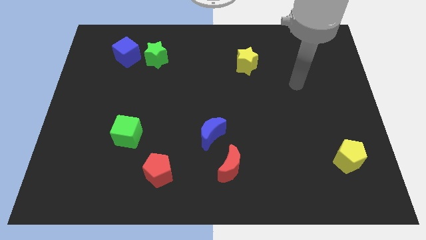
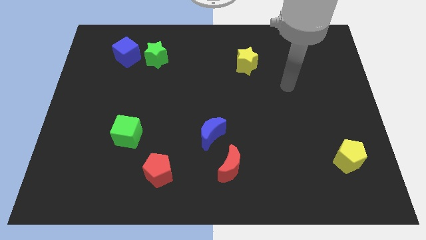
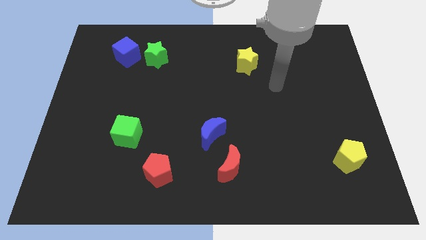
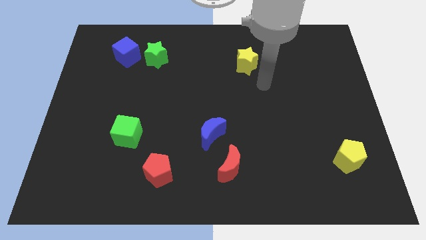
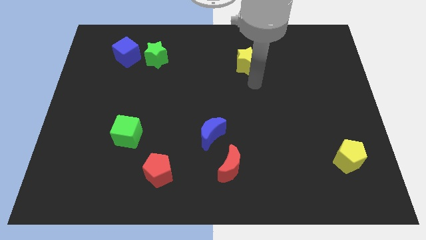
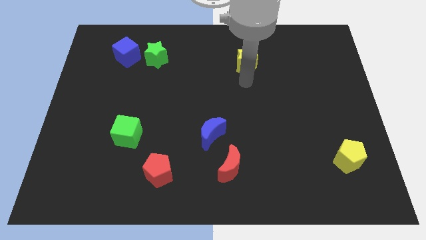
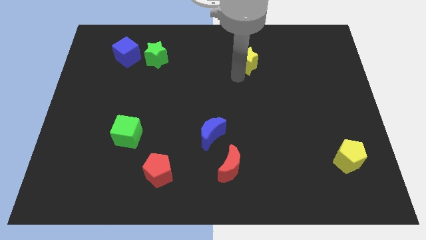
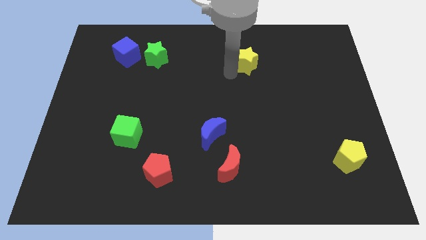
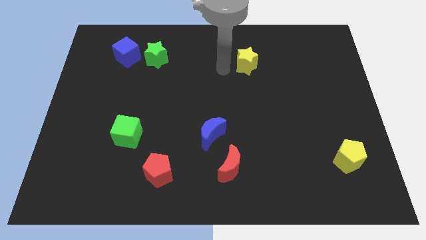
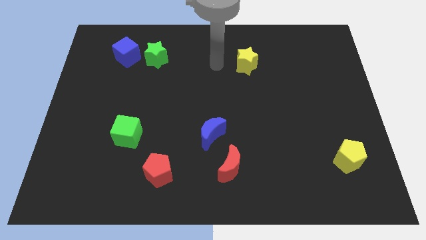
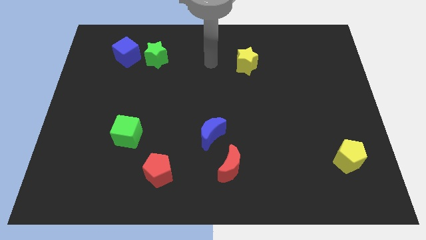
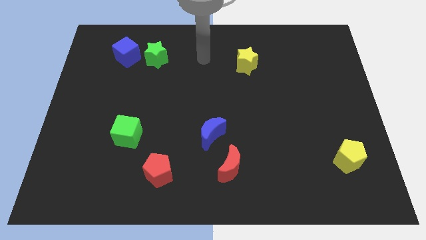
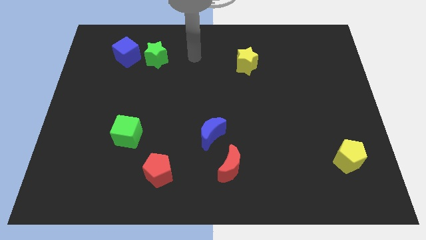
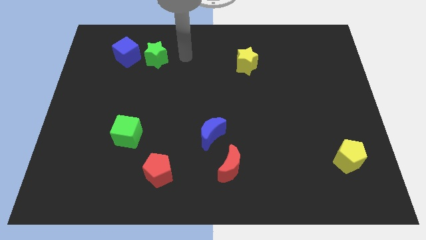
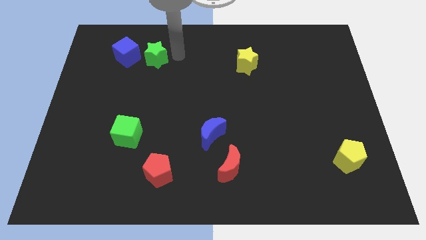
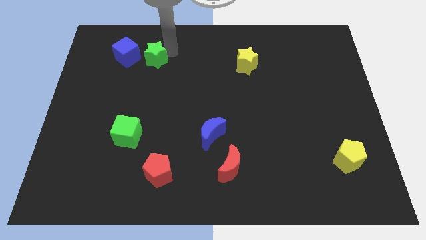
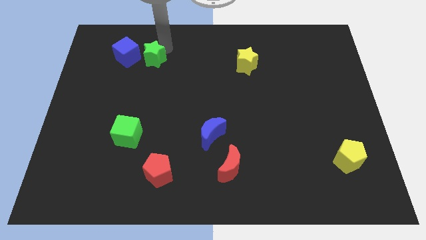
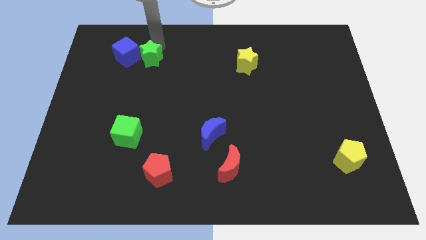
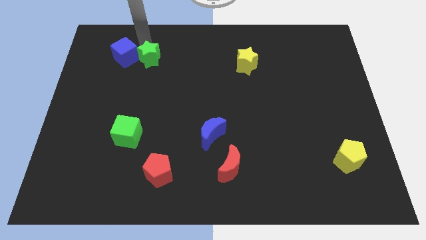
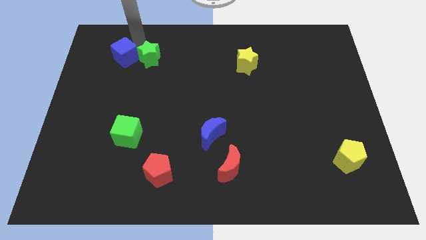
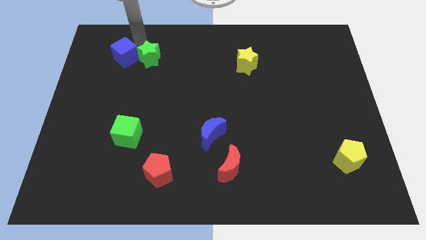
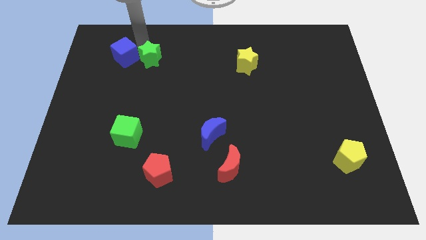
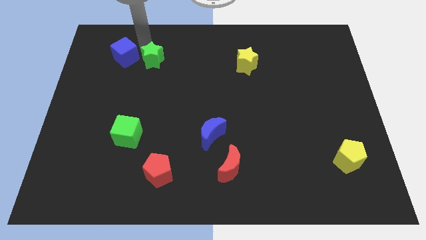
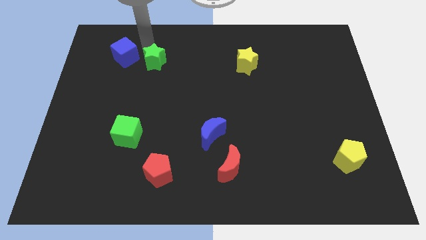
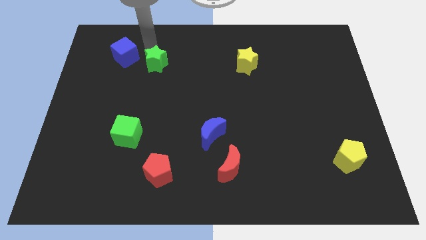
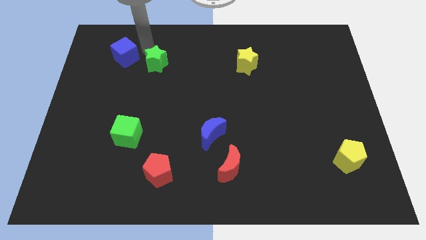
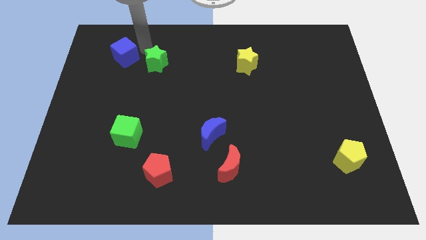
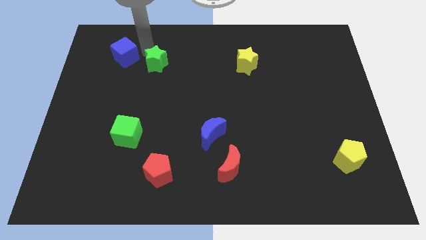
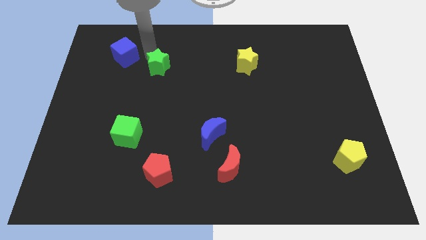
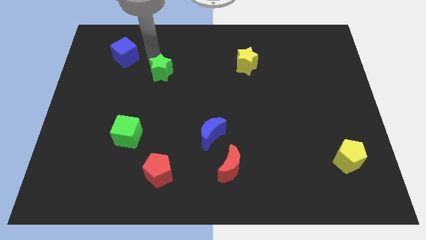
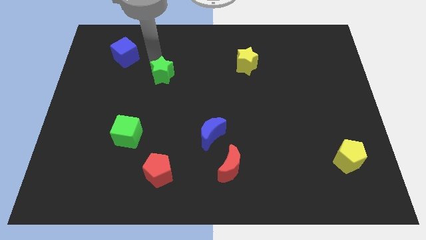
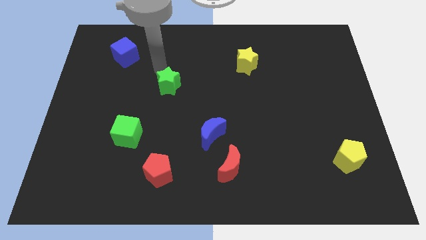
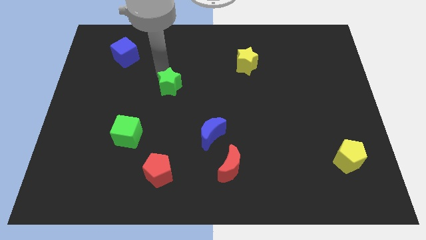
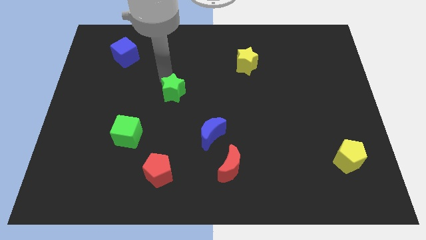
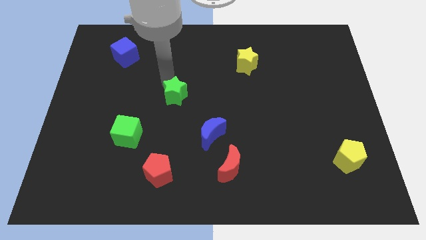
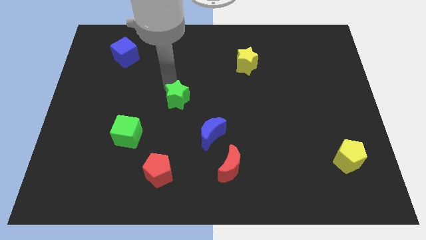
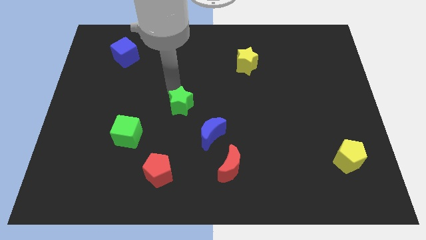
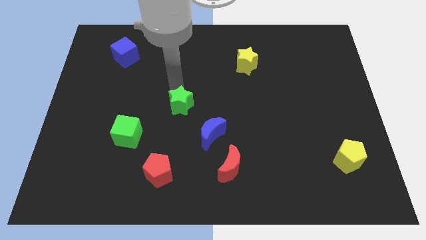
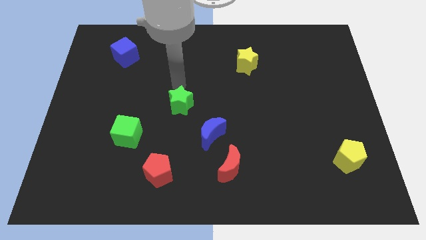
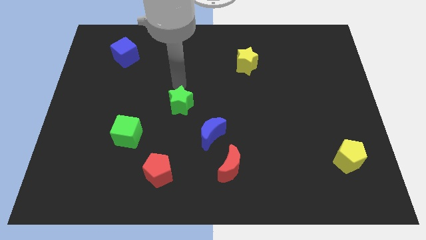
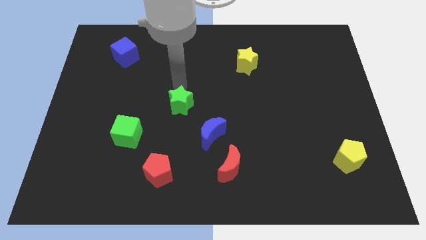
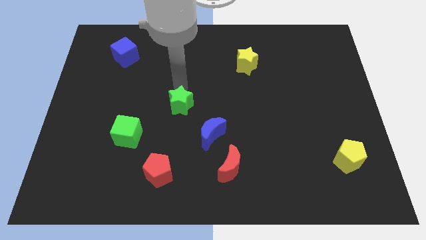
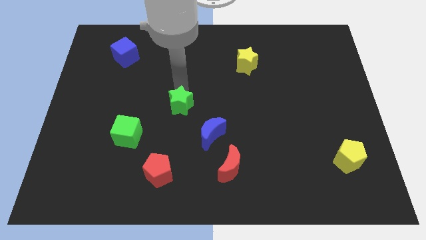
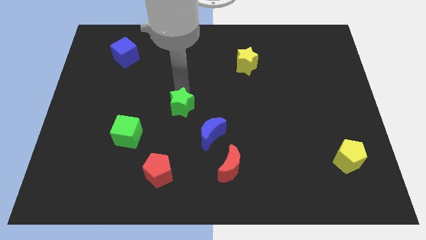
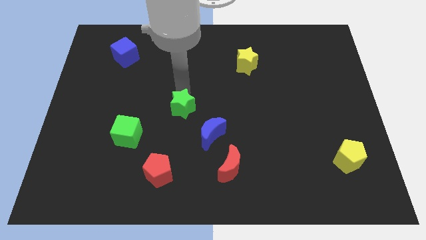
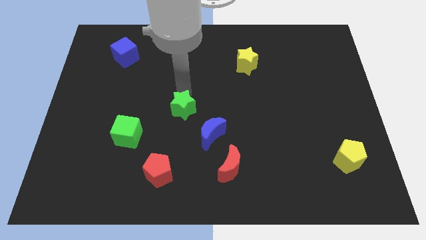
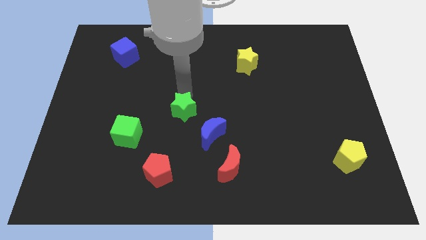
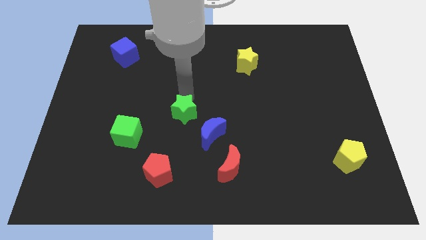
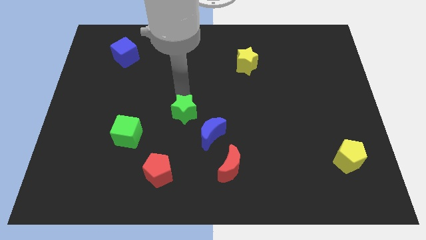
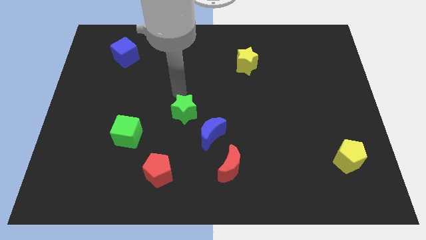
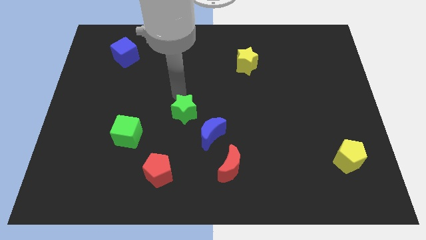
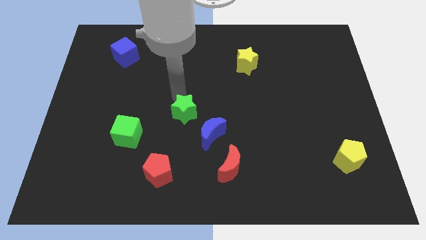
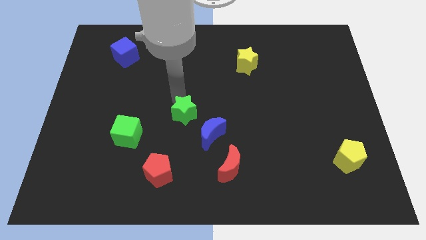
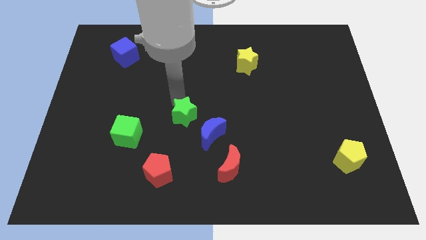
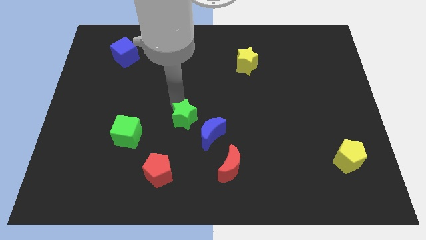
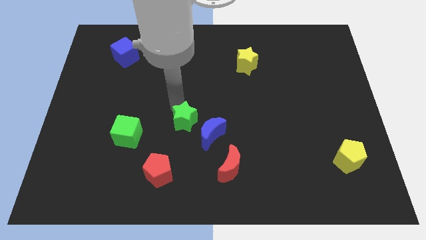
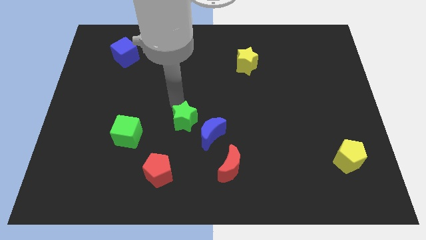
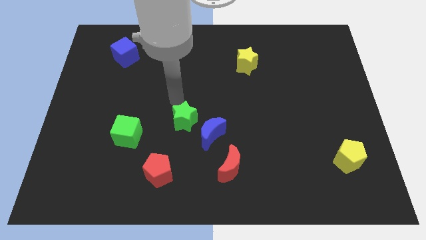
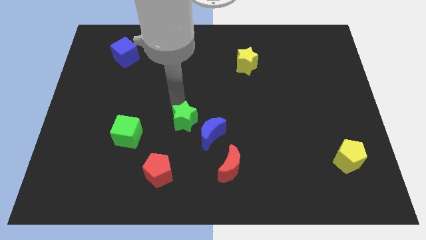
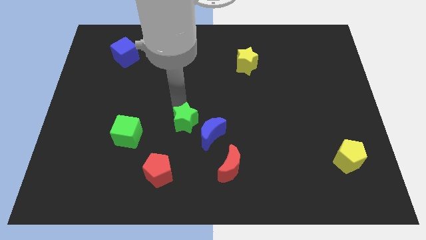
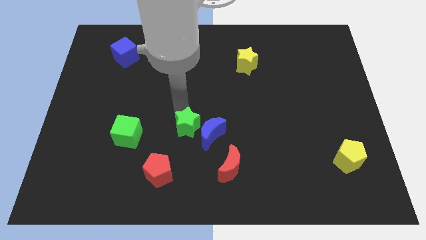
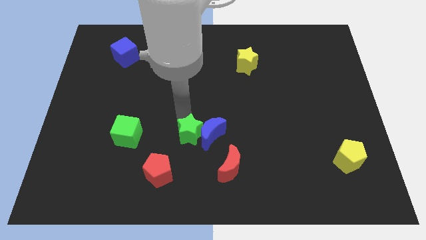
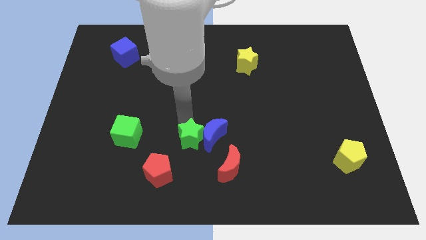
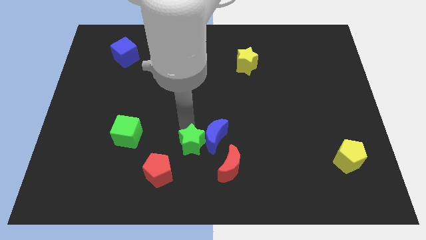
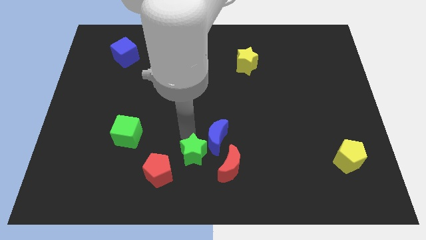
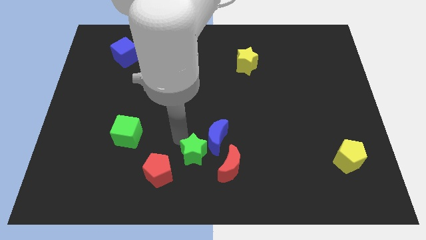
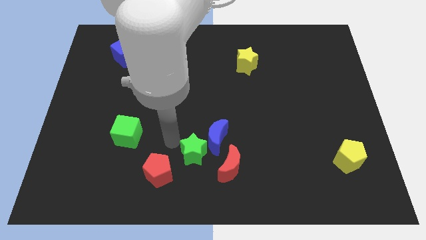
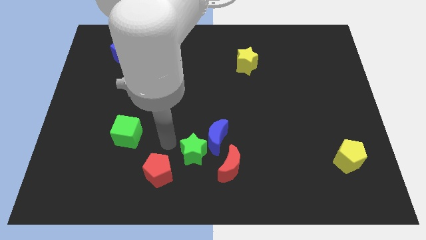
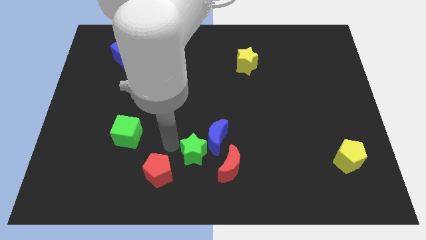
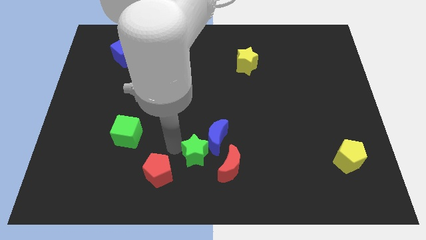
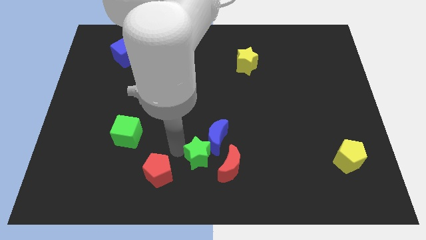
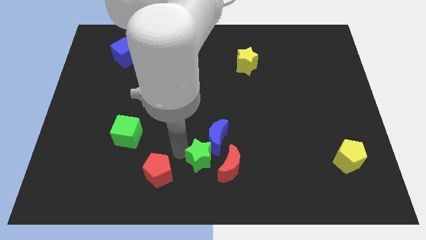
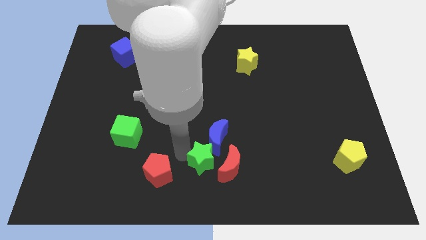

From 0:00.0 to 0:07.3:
put the green star towards the red moon

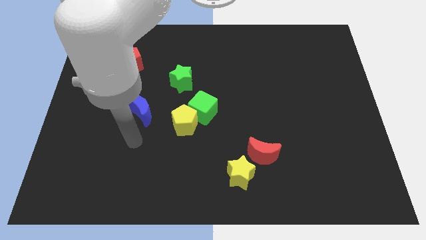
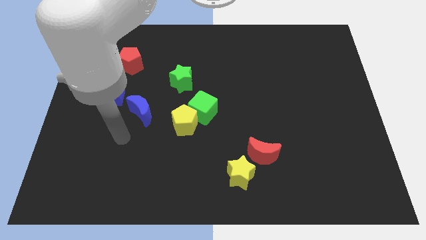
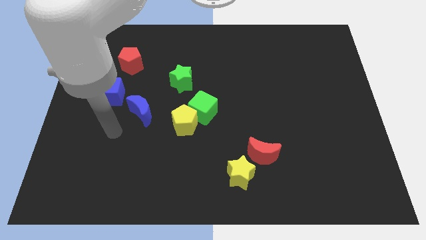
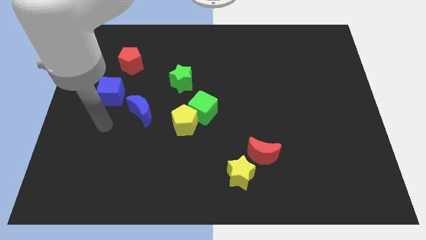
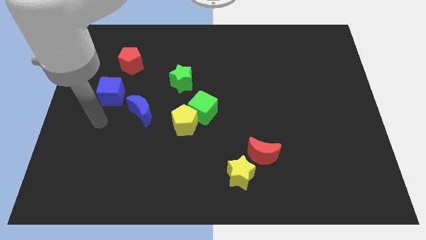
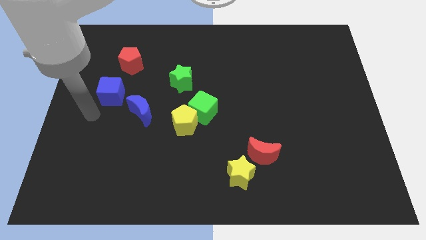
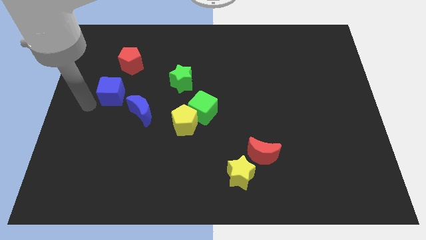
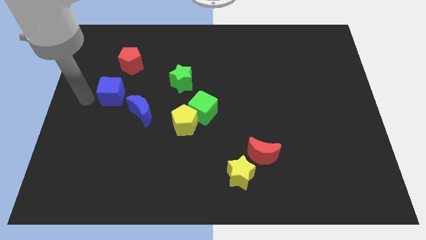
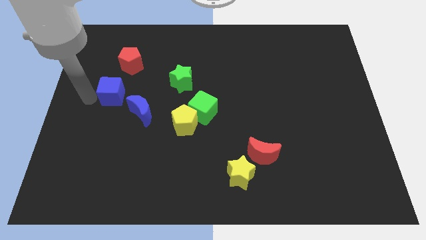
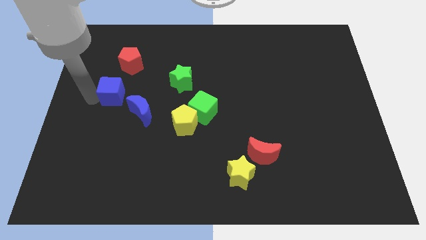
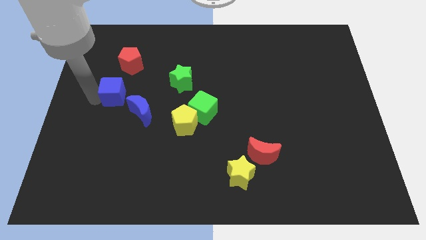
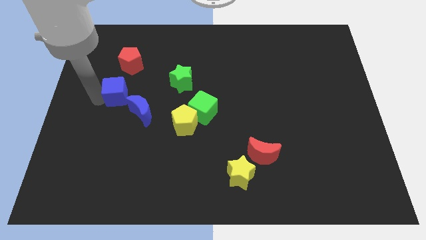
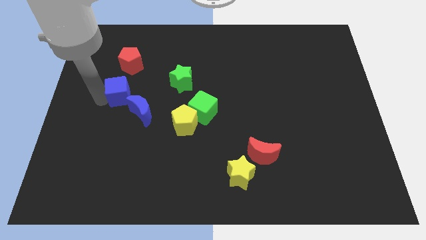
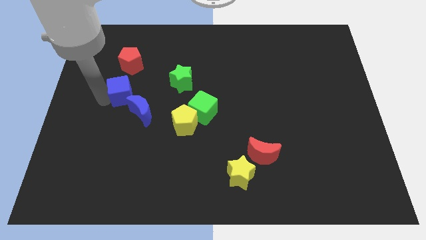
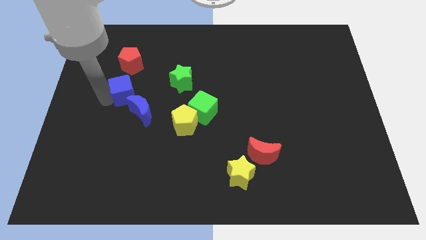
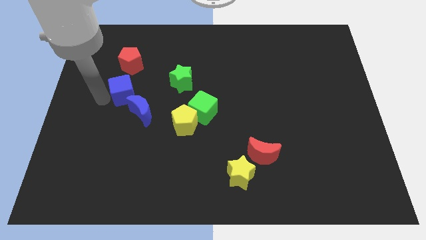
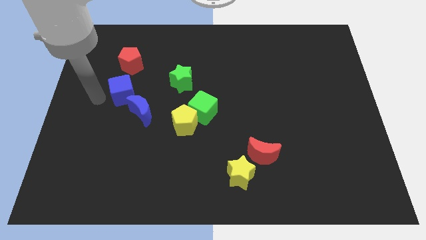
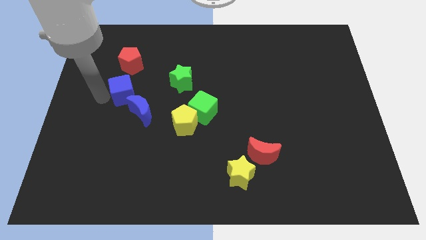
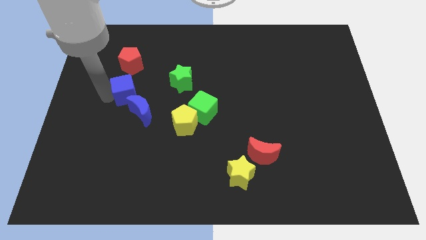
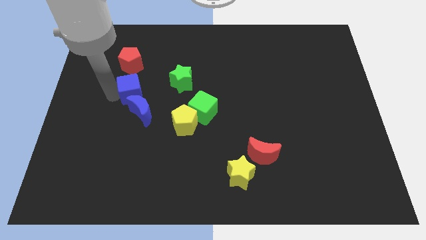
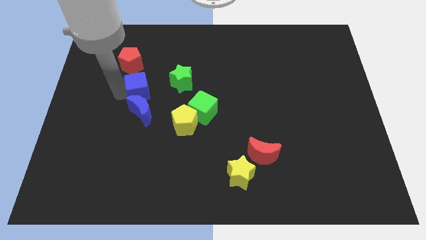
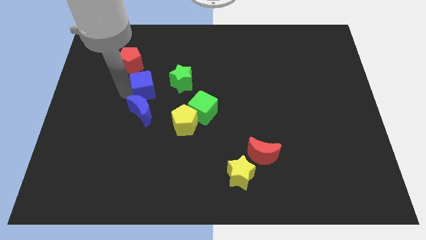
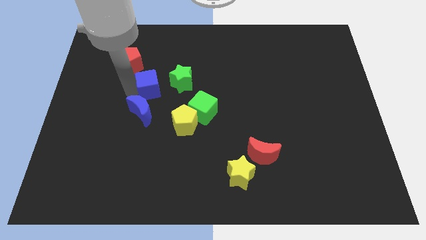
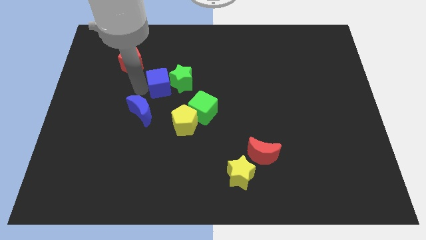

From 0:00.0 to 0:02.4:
put the blue cube close to the green star
